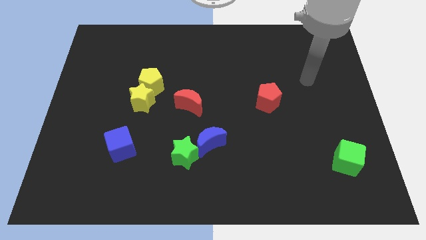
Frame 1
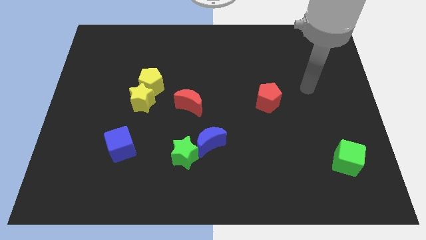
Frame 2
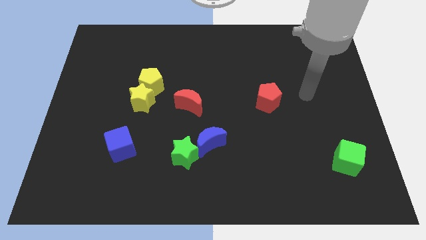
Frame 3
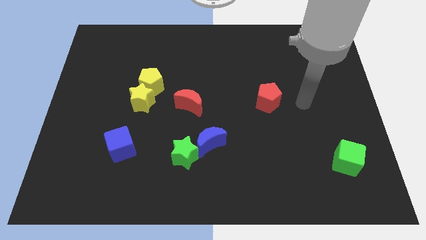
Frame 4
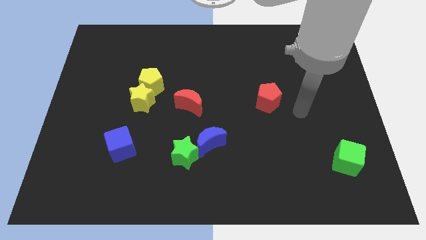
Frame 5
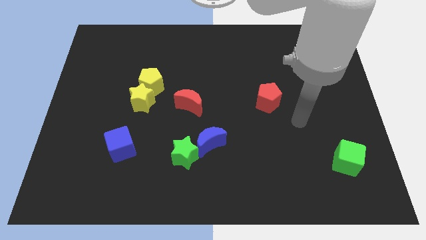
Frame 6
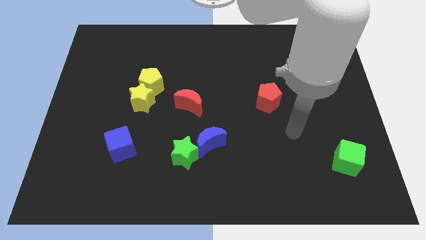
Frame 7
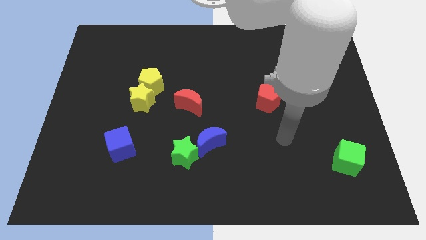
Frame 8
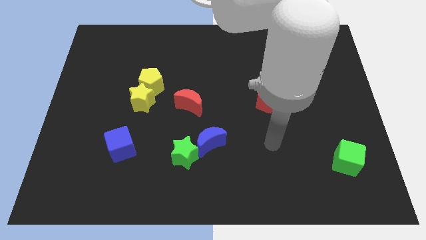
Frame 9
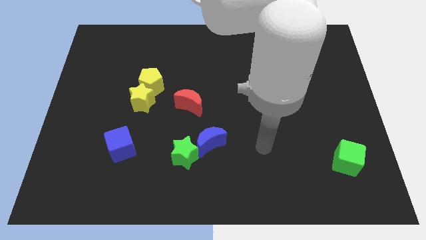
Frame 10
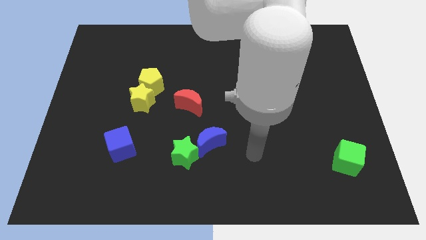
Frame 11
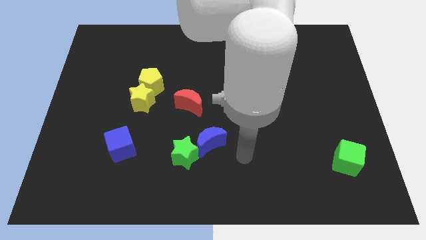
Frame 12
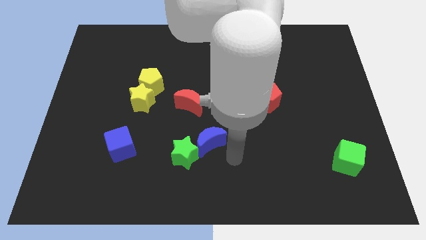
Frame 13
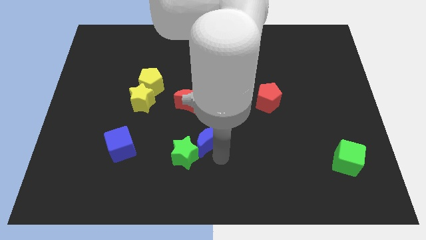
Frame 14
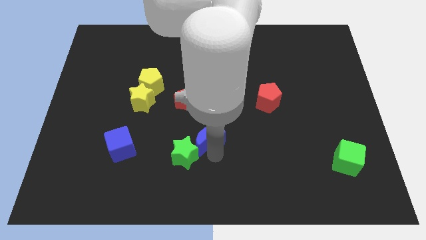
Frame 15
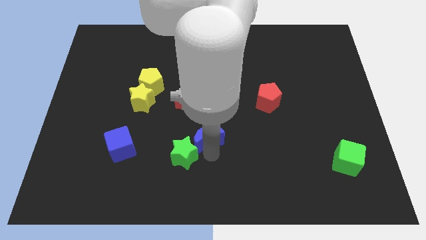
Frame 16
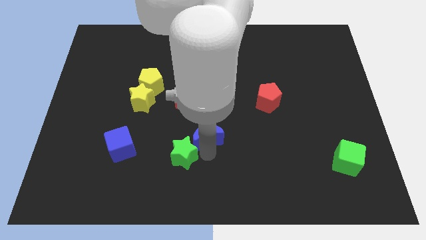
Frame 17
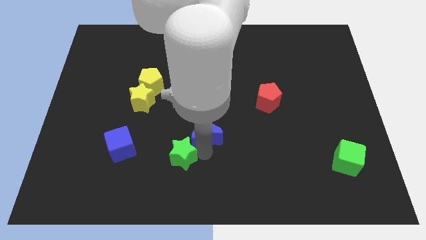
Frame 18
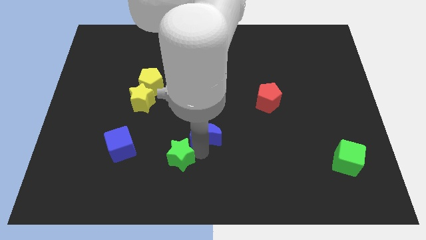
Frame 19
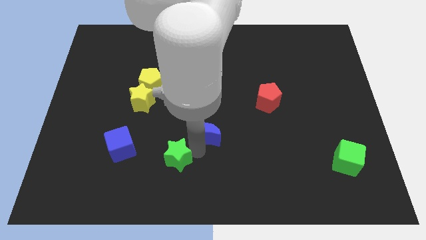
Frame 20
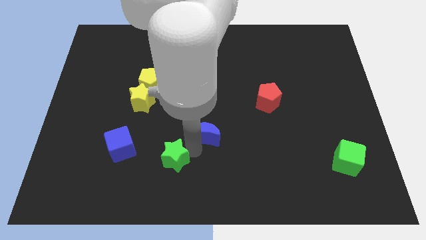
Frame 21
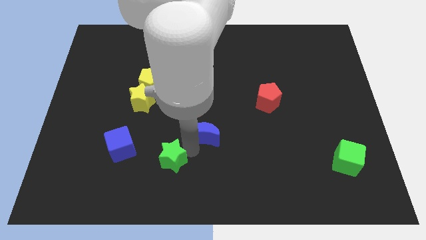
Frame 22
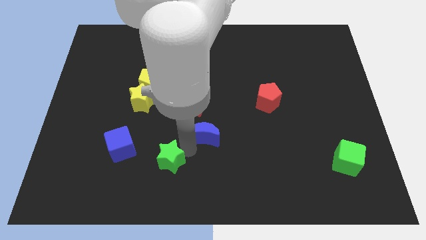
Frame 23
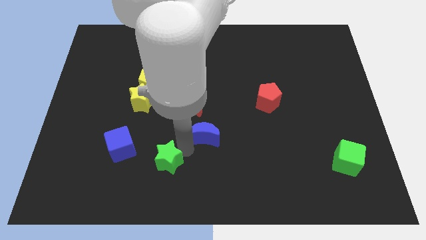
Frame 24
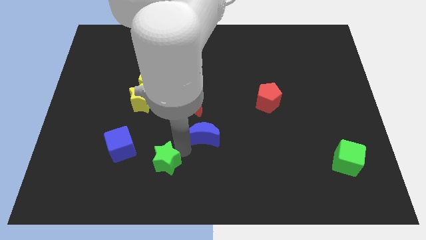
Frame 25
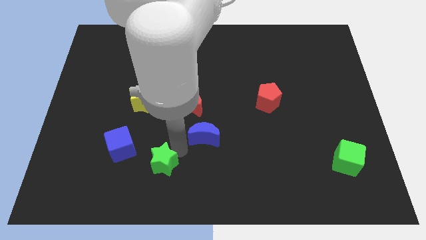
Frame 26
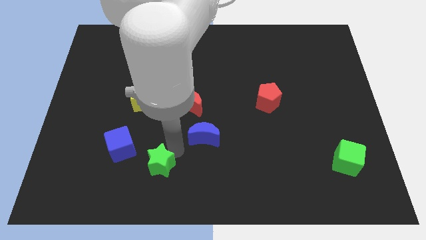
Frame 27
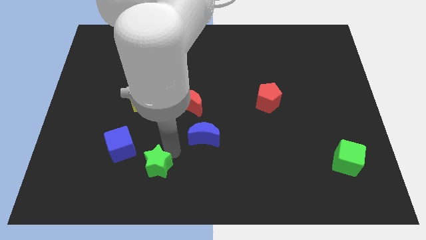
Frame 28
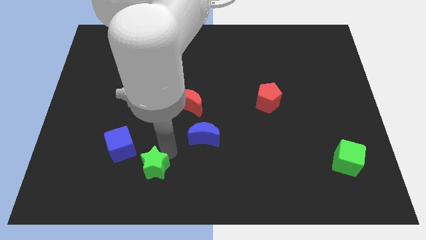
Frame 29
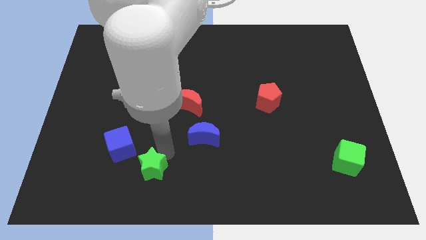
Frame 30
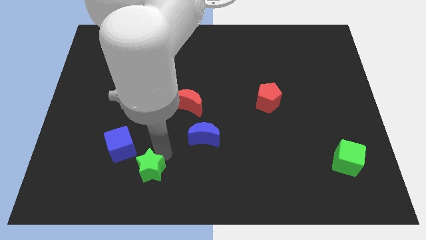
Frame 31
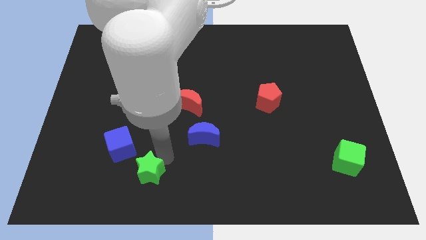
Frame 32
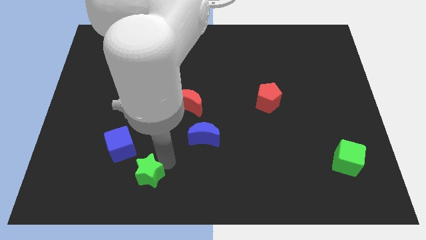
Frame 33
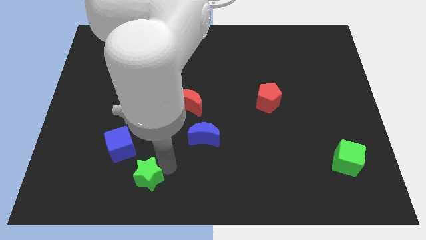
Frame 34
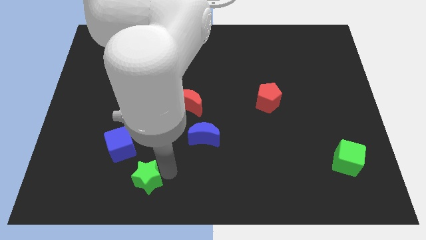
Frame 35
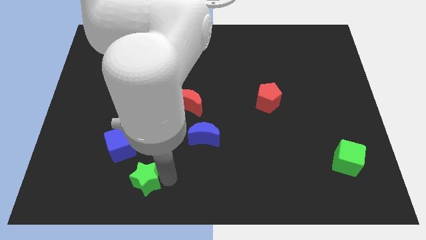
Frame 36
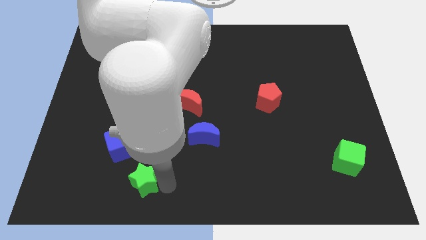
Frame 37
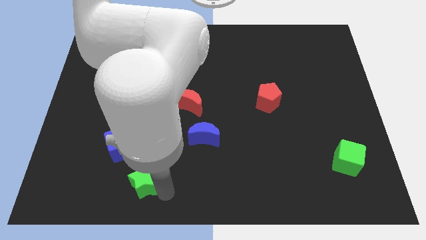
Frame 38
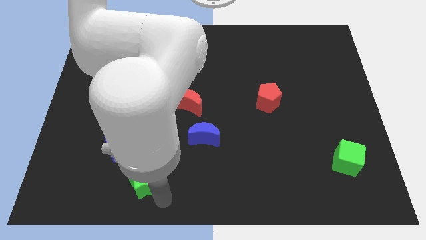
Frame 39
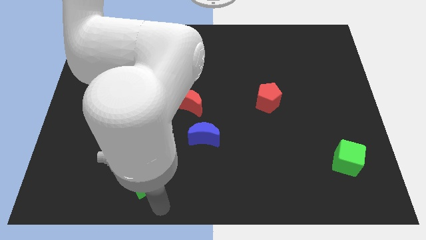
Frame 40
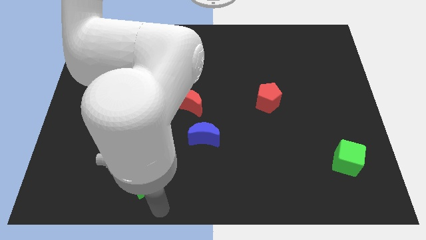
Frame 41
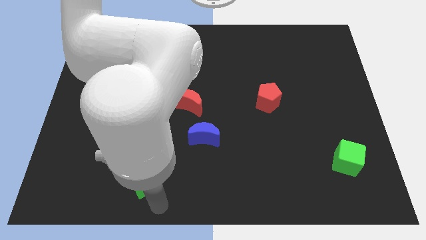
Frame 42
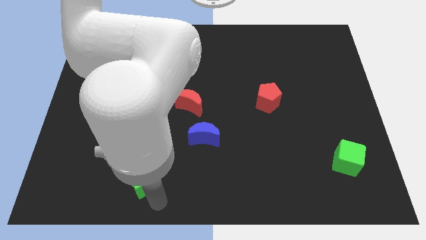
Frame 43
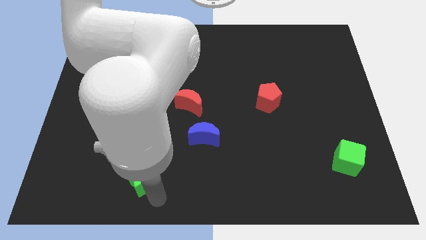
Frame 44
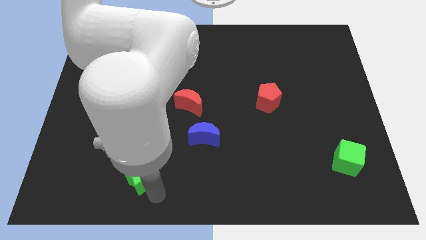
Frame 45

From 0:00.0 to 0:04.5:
slightly slide the green star to the left

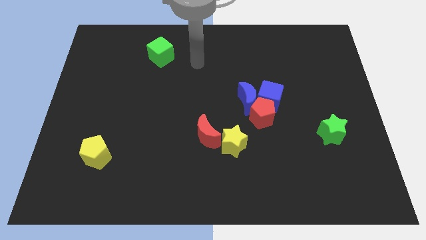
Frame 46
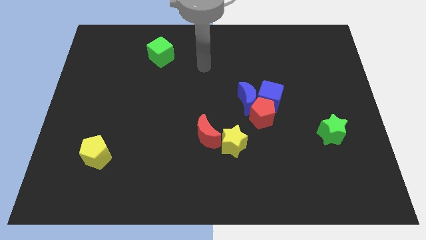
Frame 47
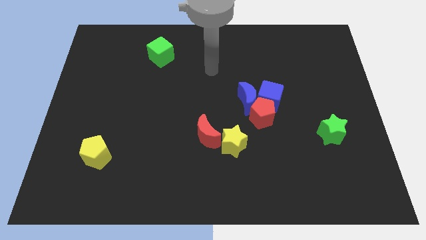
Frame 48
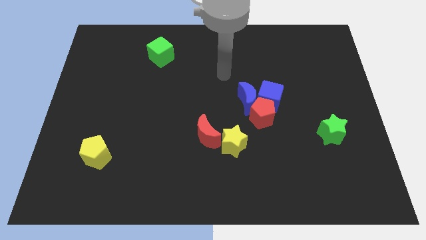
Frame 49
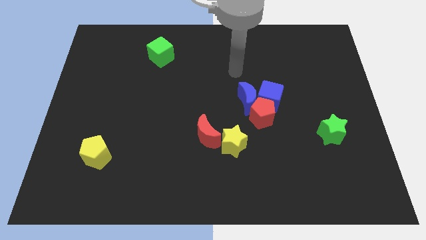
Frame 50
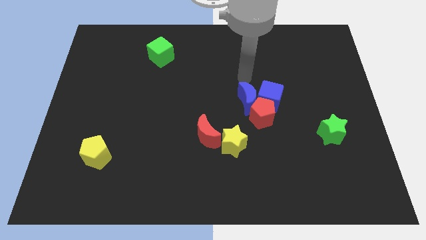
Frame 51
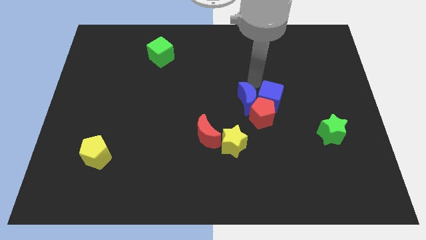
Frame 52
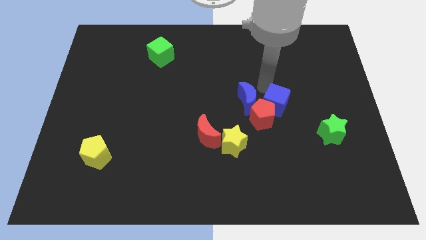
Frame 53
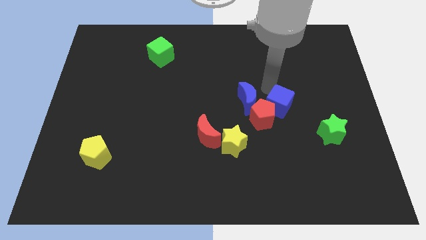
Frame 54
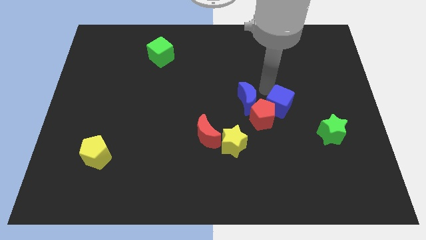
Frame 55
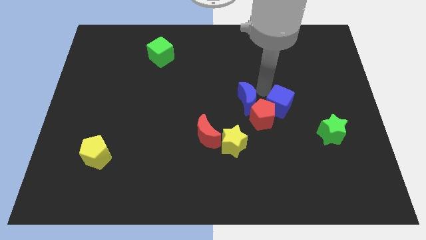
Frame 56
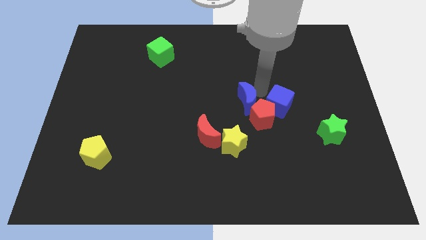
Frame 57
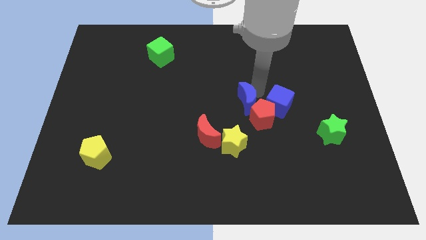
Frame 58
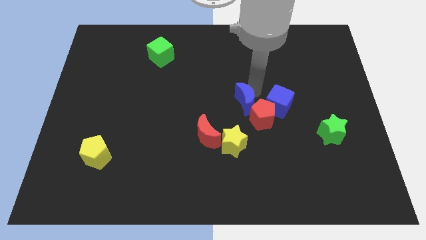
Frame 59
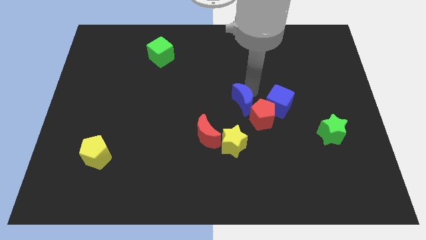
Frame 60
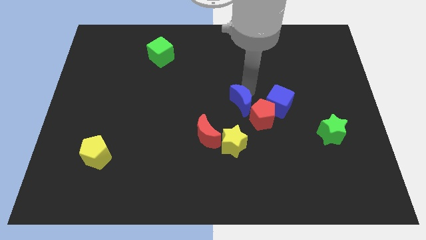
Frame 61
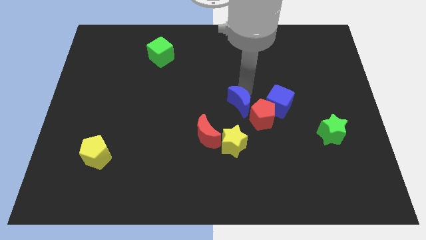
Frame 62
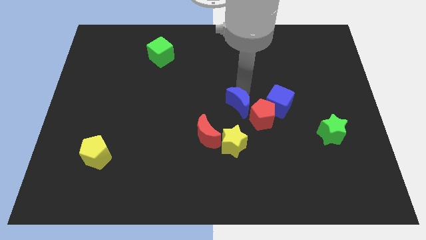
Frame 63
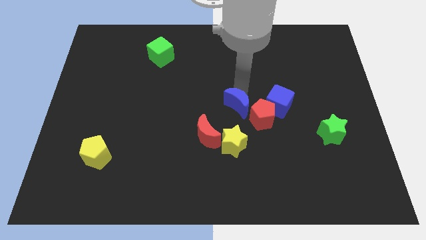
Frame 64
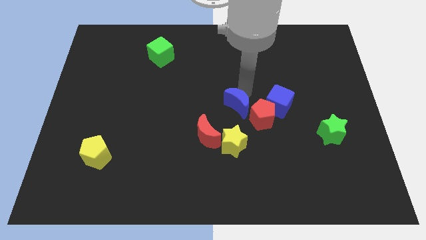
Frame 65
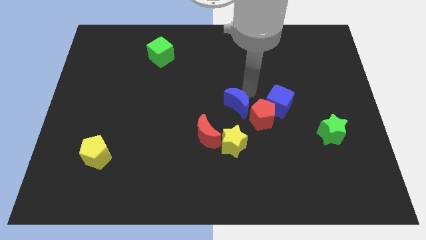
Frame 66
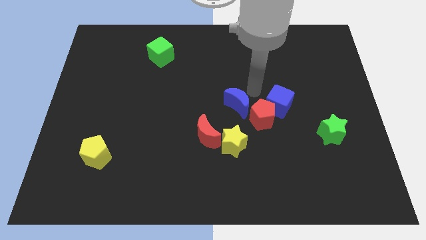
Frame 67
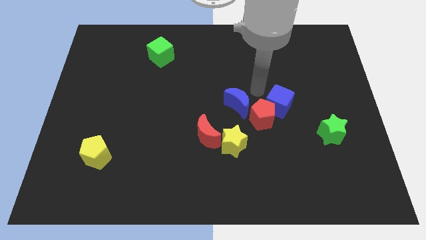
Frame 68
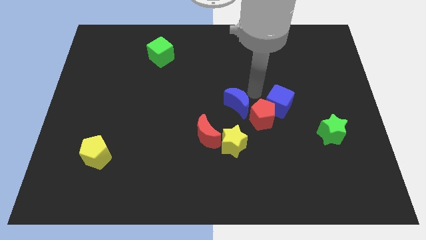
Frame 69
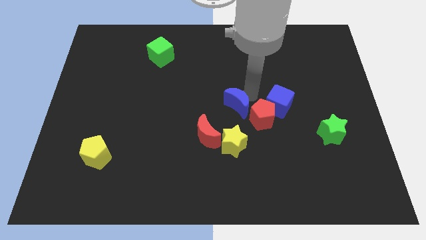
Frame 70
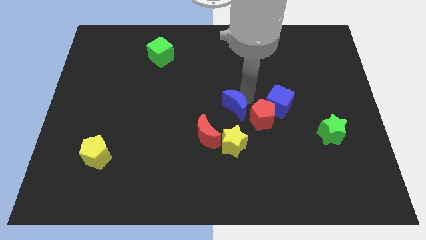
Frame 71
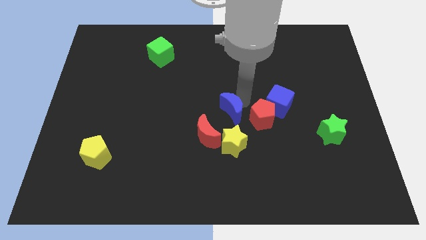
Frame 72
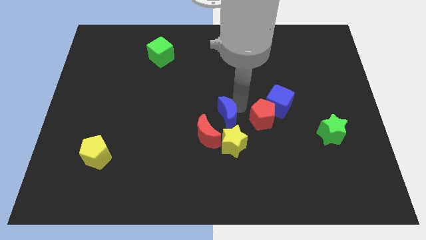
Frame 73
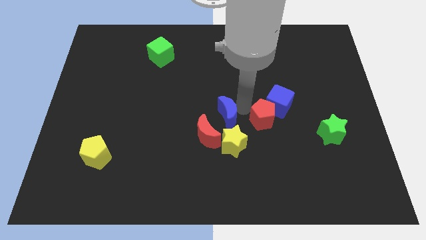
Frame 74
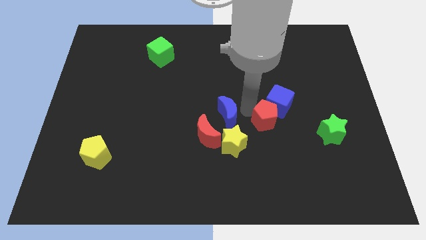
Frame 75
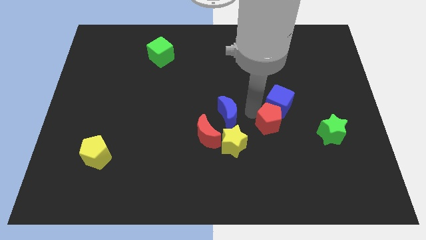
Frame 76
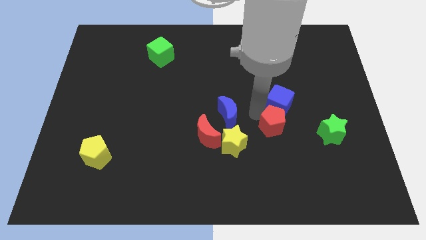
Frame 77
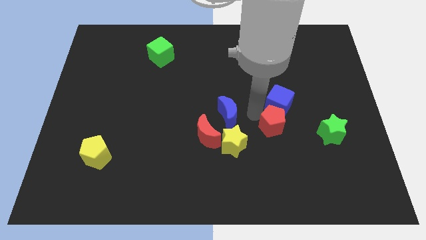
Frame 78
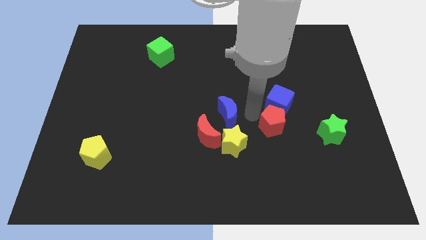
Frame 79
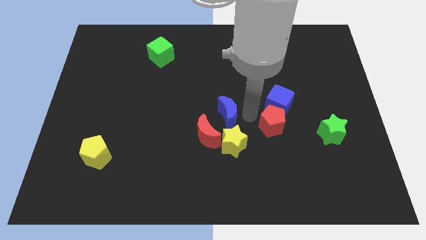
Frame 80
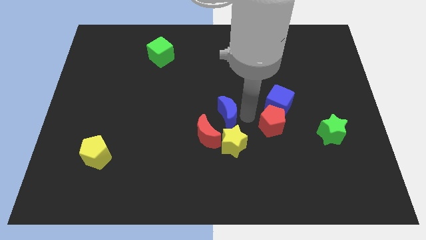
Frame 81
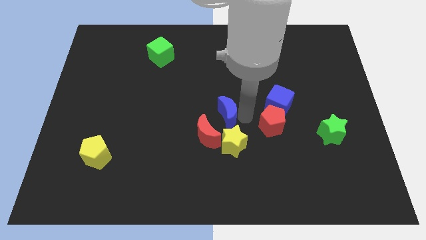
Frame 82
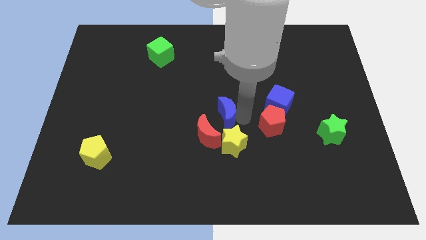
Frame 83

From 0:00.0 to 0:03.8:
push the blue moon downwards and left diagonally somewhat
